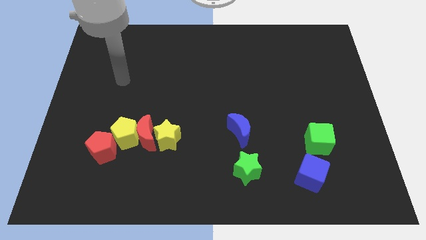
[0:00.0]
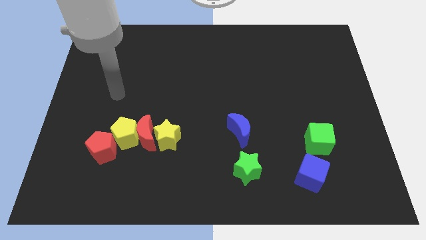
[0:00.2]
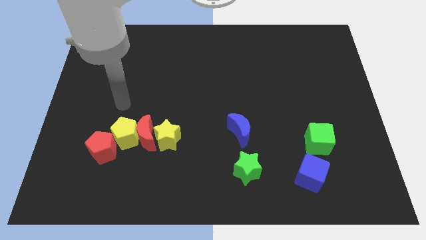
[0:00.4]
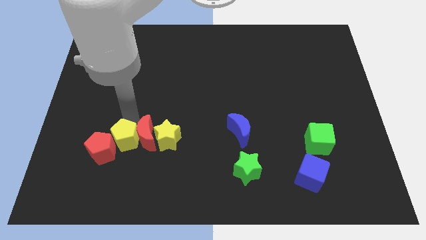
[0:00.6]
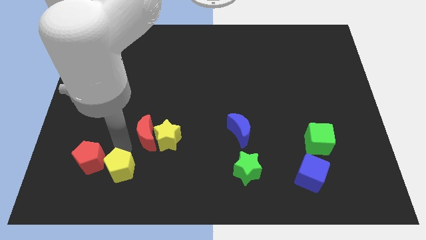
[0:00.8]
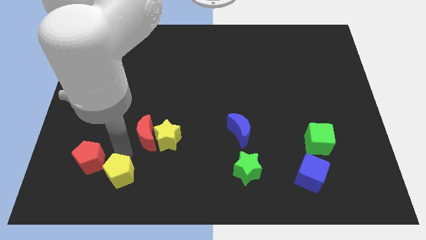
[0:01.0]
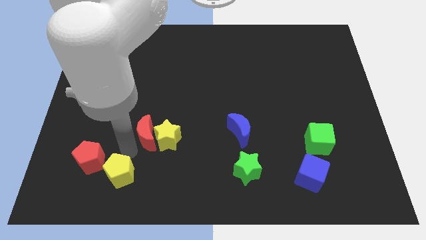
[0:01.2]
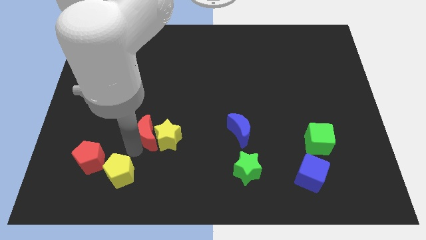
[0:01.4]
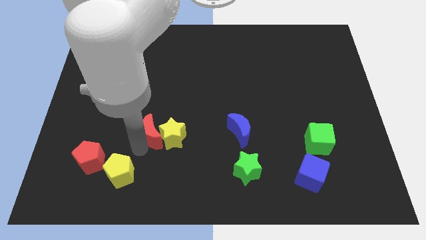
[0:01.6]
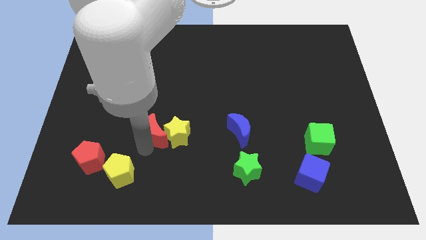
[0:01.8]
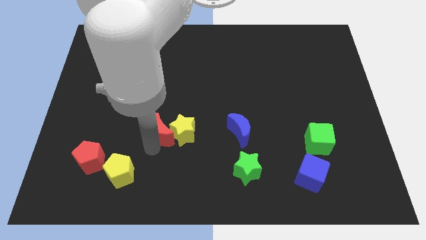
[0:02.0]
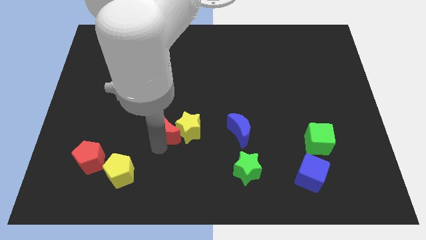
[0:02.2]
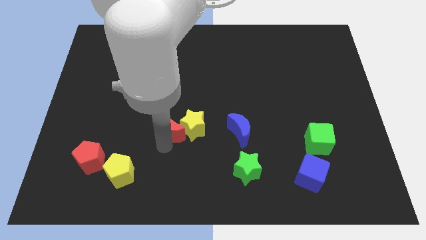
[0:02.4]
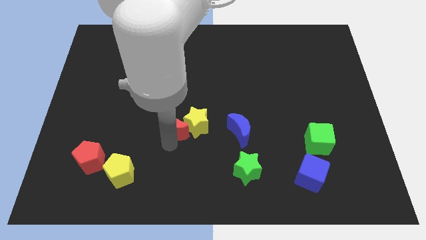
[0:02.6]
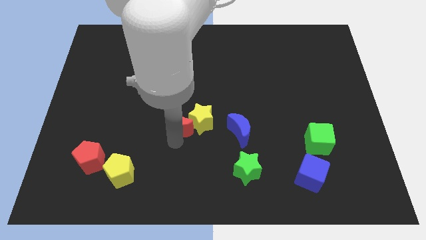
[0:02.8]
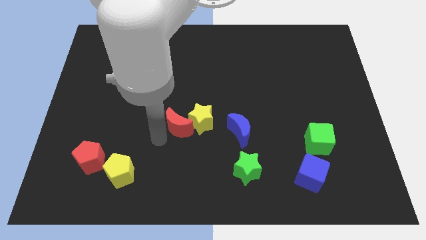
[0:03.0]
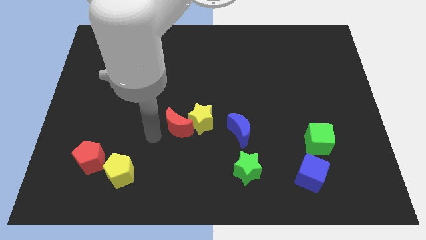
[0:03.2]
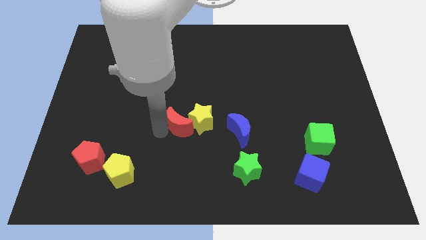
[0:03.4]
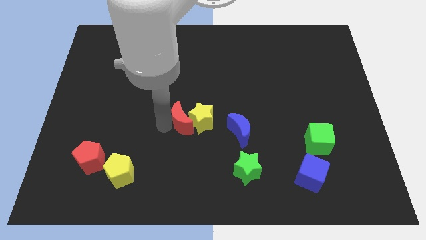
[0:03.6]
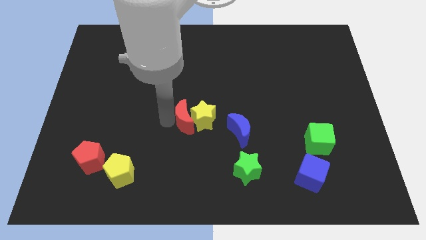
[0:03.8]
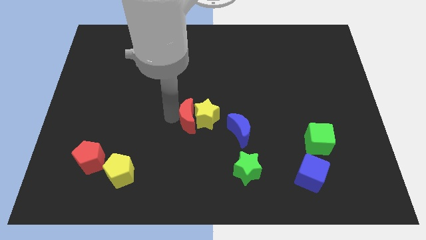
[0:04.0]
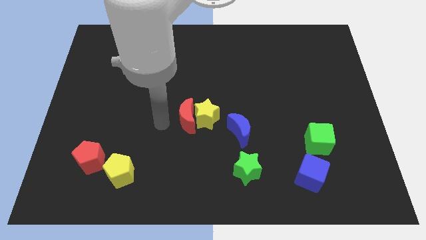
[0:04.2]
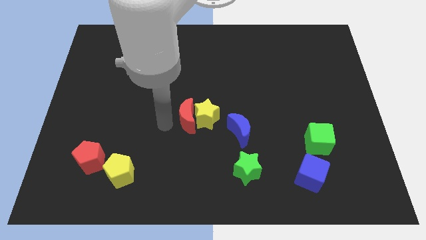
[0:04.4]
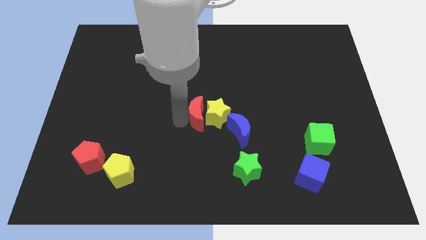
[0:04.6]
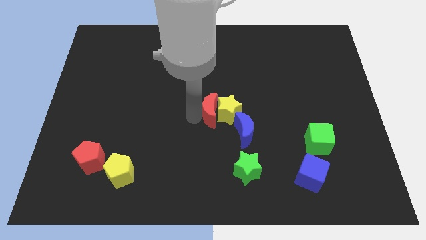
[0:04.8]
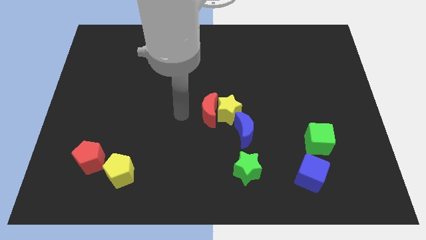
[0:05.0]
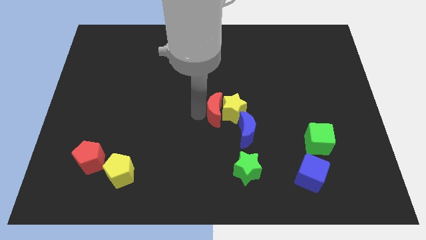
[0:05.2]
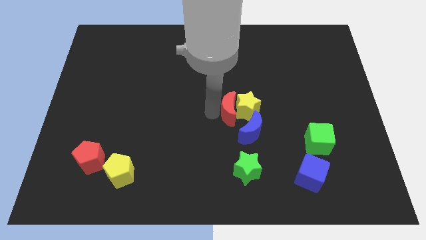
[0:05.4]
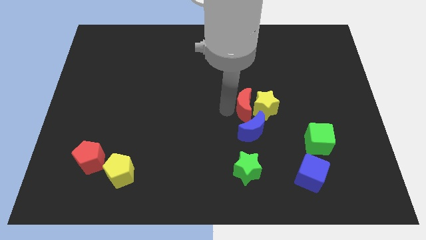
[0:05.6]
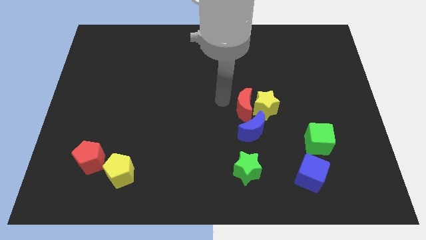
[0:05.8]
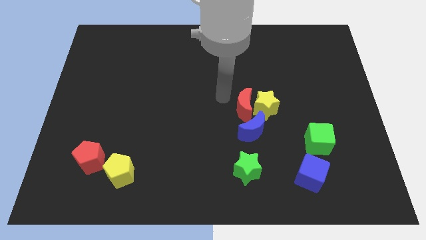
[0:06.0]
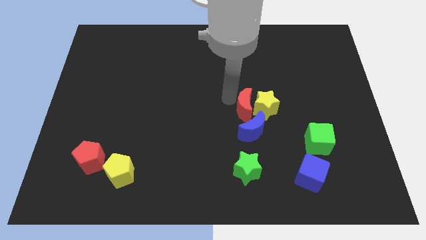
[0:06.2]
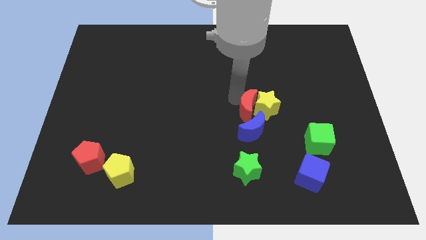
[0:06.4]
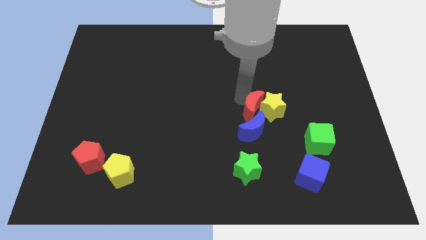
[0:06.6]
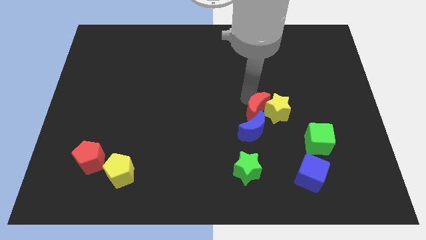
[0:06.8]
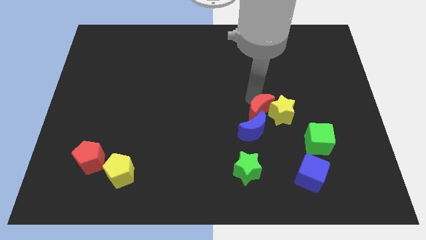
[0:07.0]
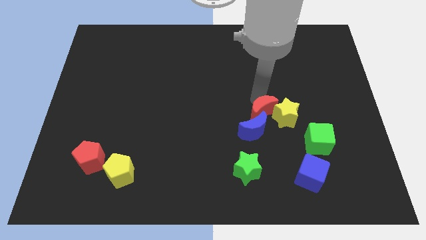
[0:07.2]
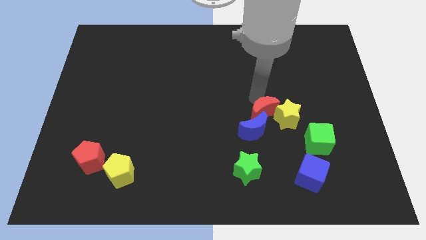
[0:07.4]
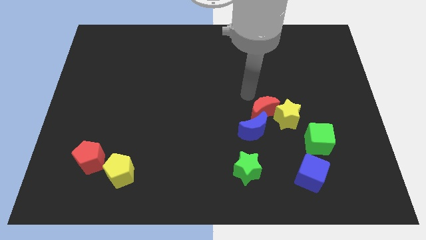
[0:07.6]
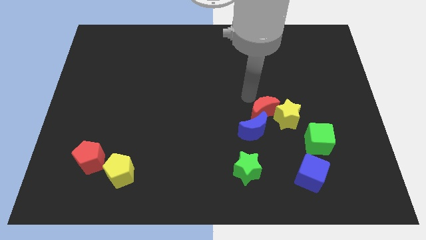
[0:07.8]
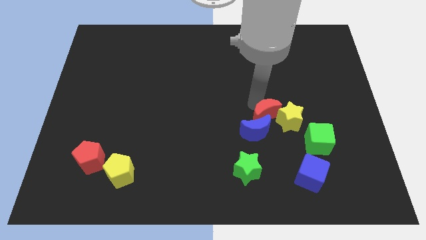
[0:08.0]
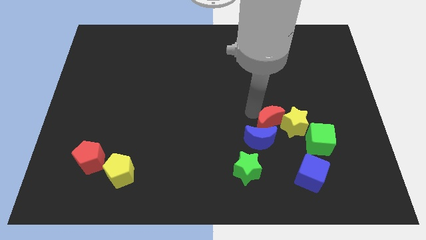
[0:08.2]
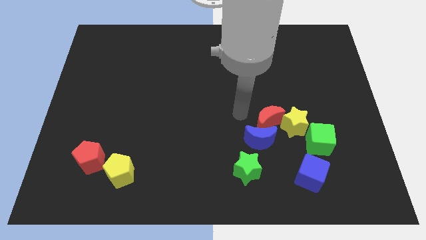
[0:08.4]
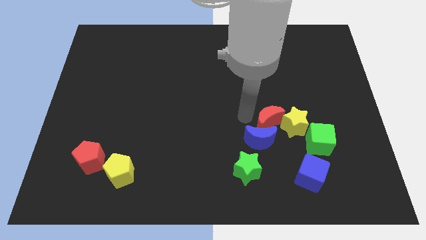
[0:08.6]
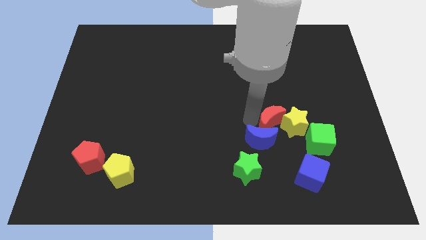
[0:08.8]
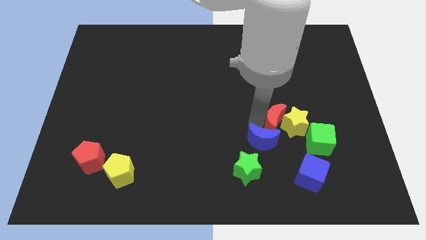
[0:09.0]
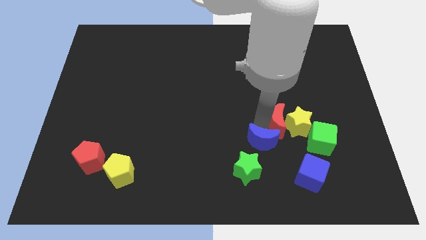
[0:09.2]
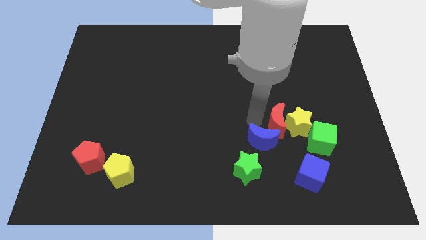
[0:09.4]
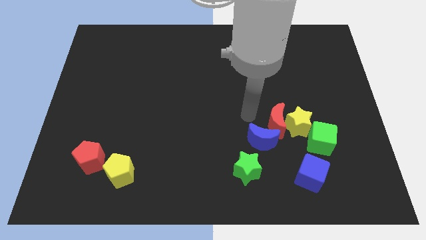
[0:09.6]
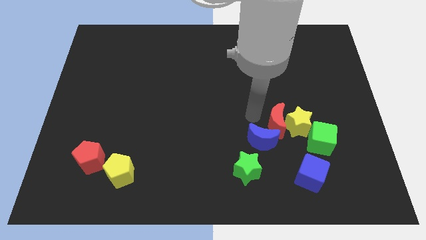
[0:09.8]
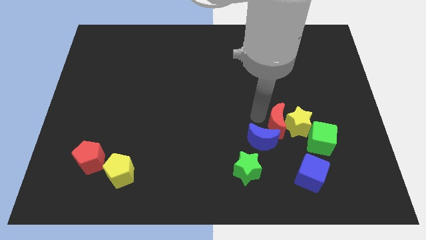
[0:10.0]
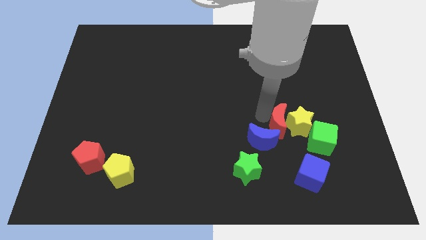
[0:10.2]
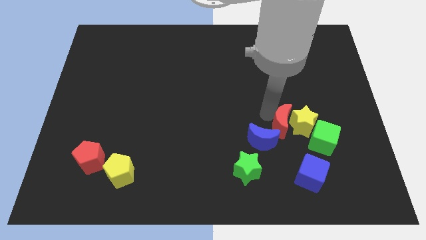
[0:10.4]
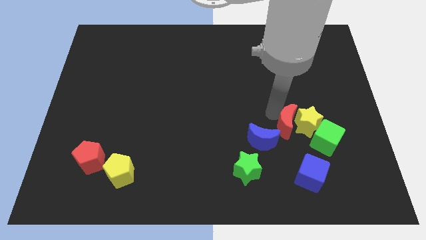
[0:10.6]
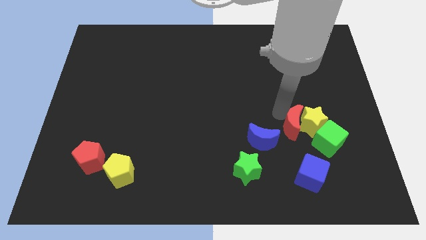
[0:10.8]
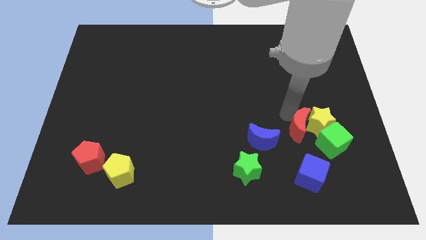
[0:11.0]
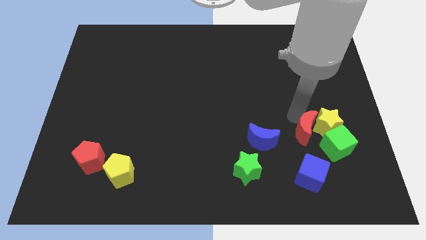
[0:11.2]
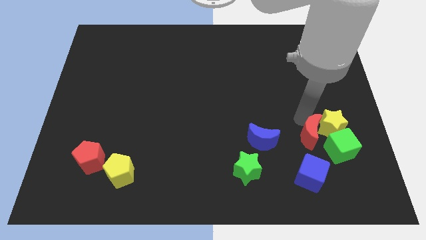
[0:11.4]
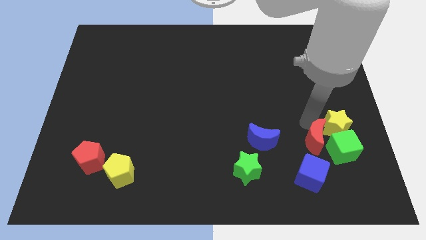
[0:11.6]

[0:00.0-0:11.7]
move the red moon close to the green cube

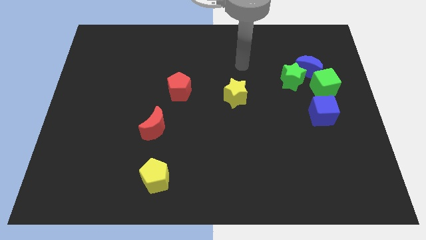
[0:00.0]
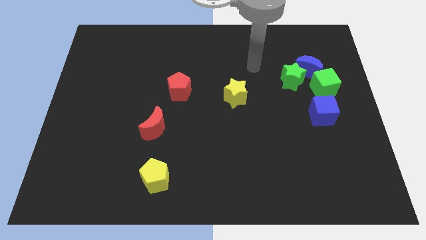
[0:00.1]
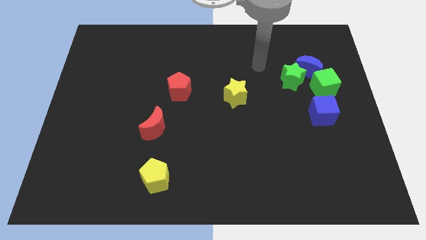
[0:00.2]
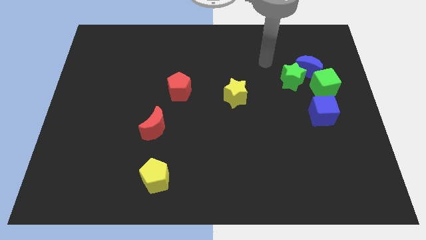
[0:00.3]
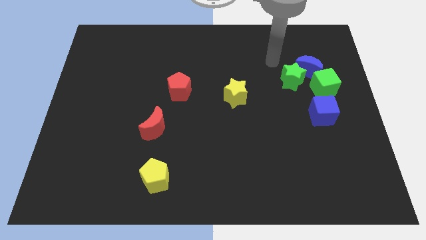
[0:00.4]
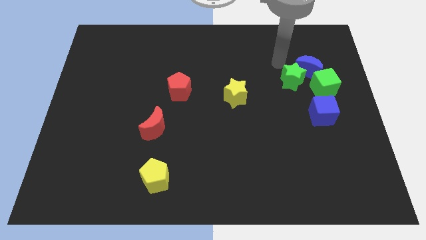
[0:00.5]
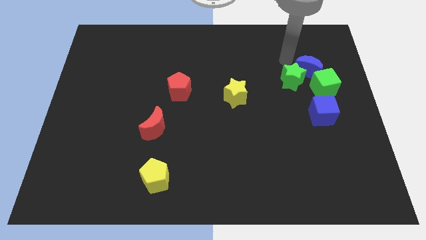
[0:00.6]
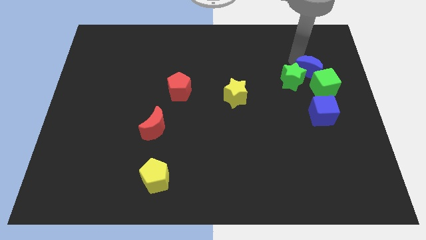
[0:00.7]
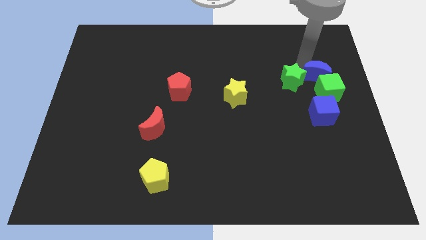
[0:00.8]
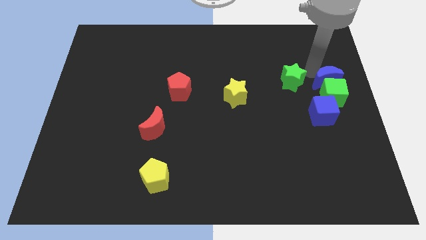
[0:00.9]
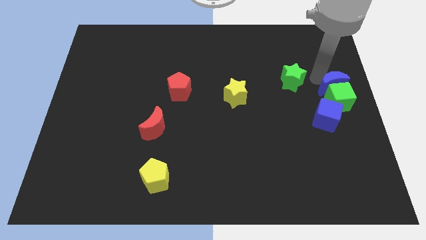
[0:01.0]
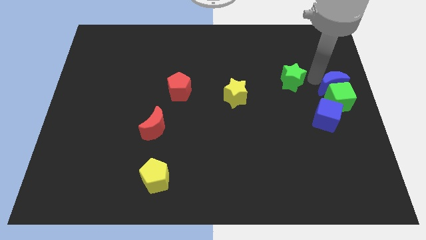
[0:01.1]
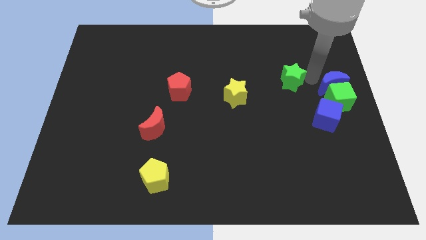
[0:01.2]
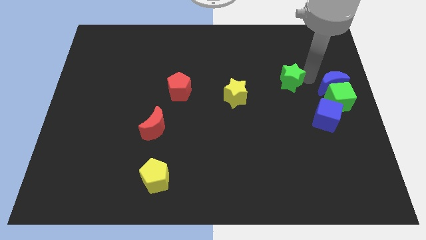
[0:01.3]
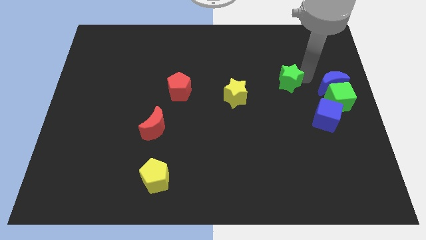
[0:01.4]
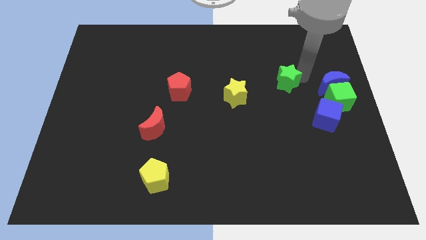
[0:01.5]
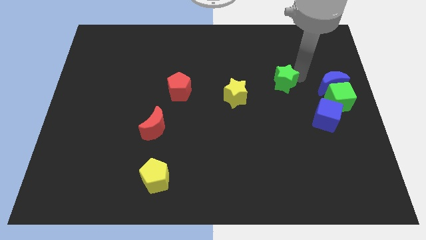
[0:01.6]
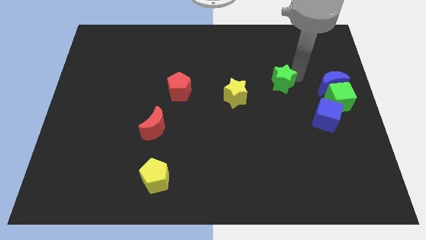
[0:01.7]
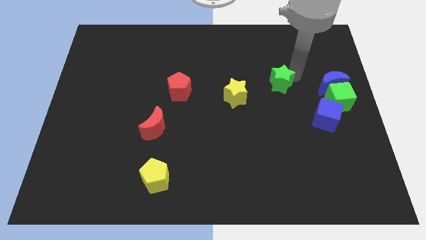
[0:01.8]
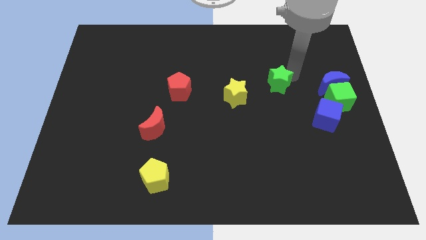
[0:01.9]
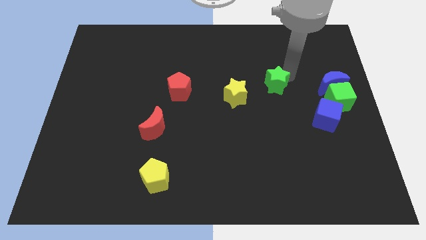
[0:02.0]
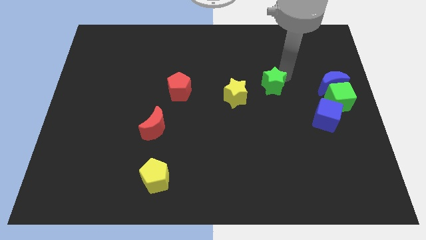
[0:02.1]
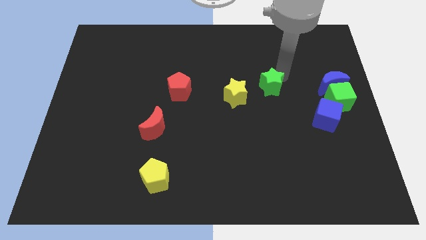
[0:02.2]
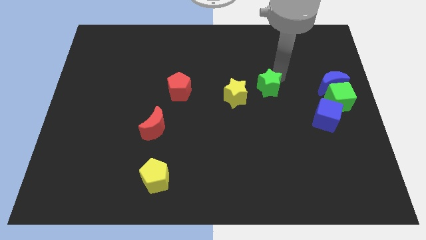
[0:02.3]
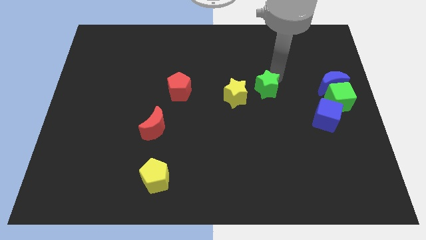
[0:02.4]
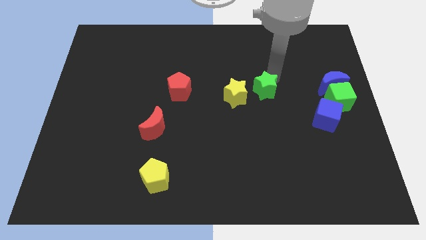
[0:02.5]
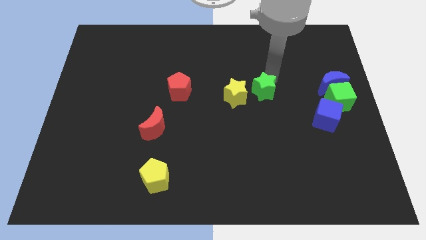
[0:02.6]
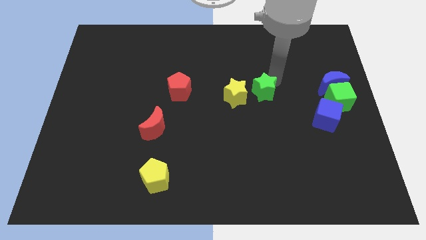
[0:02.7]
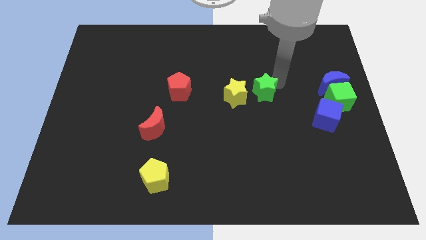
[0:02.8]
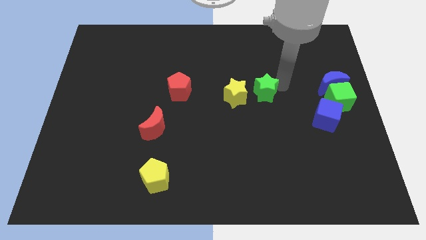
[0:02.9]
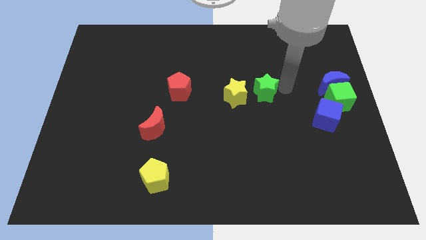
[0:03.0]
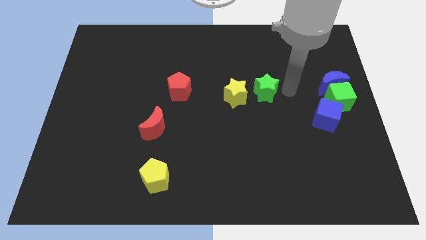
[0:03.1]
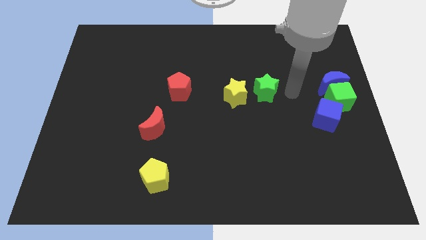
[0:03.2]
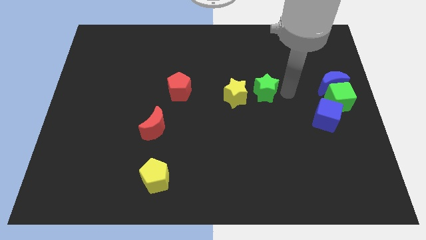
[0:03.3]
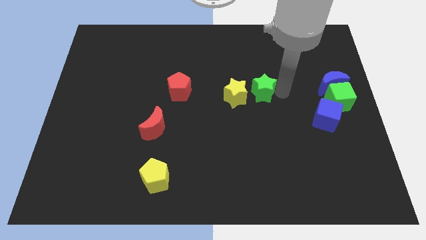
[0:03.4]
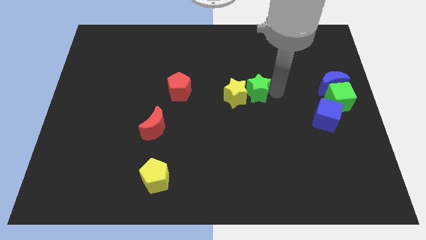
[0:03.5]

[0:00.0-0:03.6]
move the green star towards the yellow star
